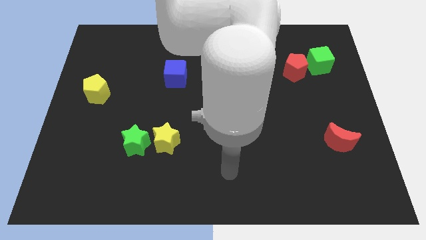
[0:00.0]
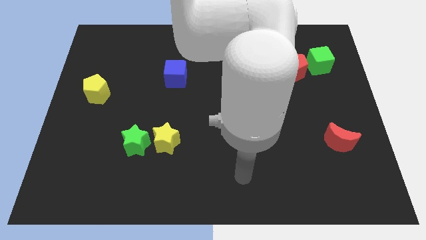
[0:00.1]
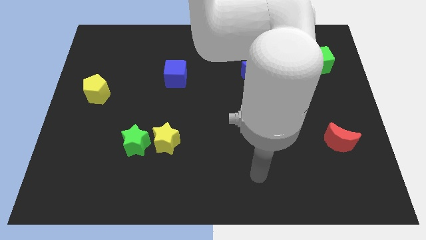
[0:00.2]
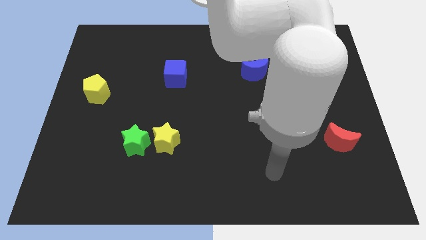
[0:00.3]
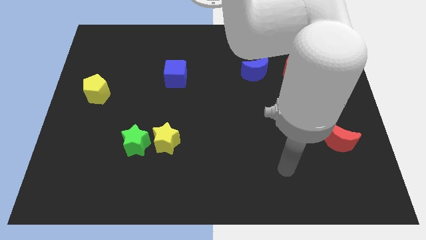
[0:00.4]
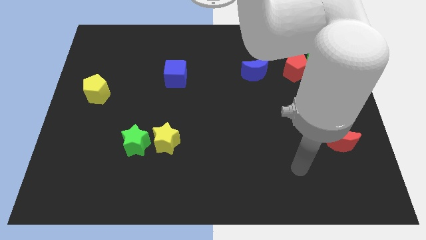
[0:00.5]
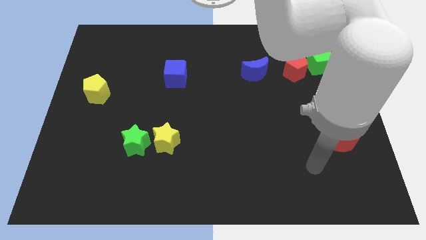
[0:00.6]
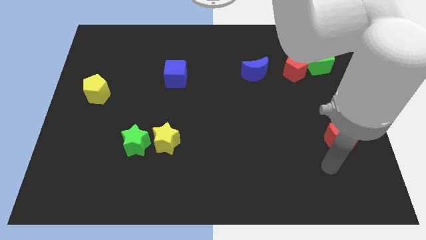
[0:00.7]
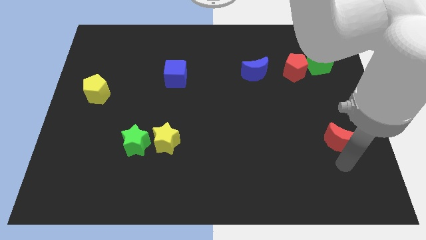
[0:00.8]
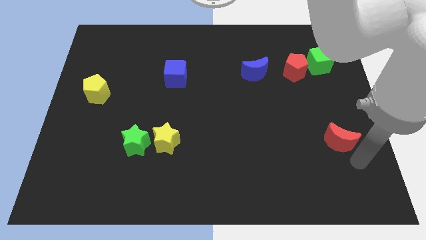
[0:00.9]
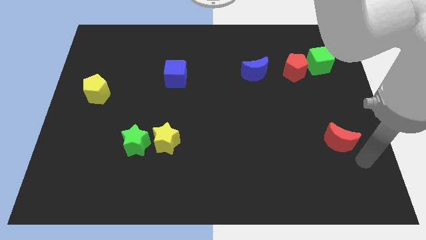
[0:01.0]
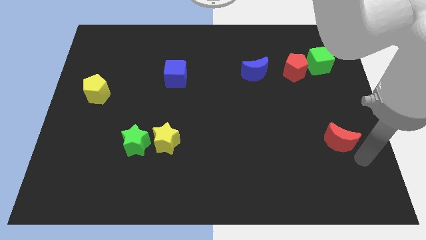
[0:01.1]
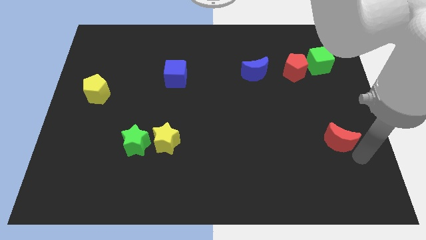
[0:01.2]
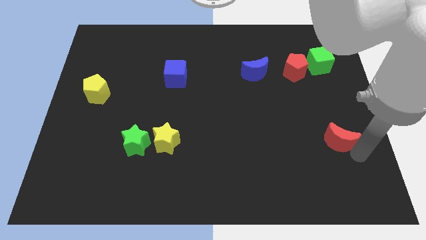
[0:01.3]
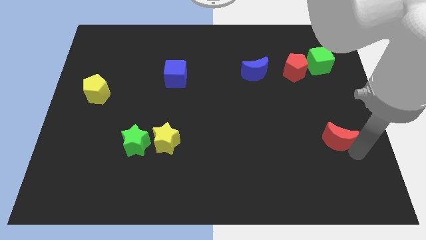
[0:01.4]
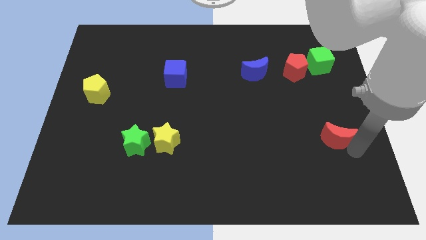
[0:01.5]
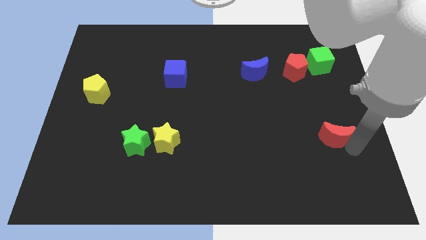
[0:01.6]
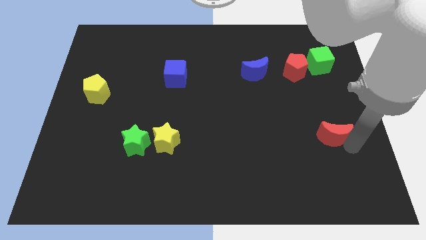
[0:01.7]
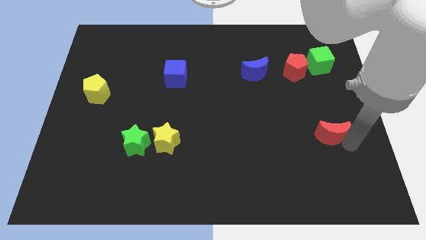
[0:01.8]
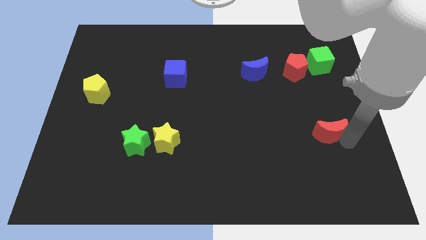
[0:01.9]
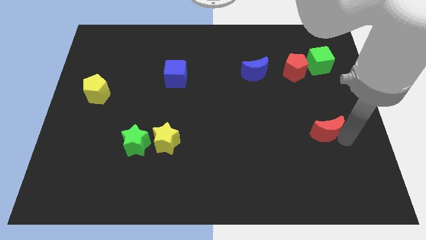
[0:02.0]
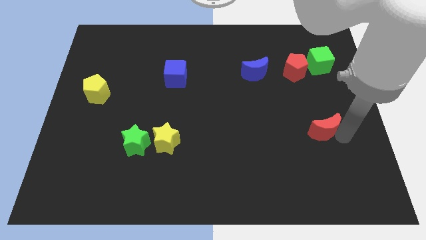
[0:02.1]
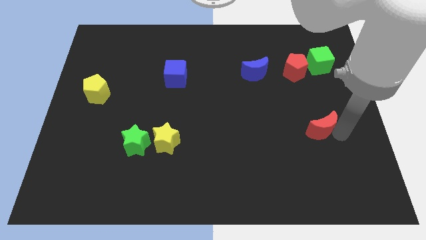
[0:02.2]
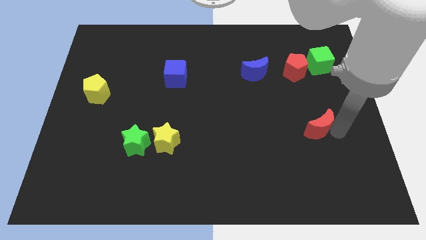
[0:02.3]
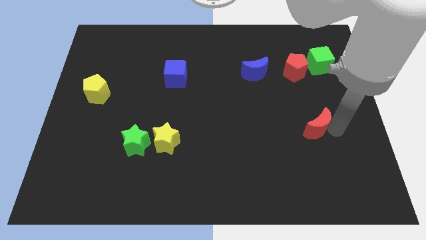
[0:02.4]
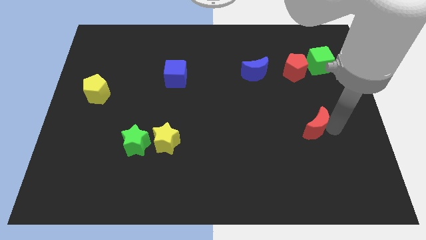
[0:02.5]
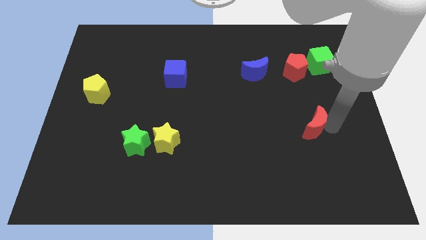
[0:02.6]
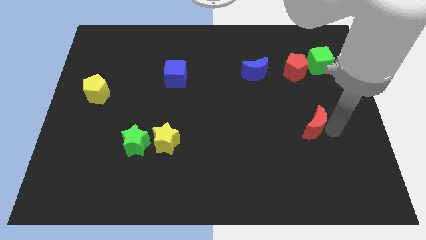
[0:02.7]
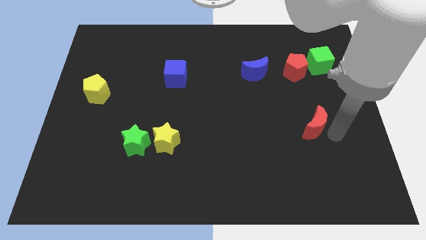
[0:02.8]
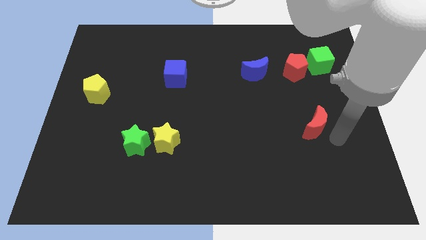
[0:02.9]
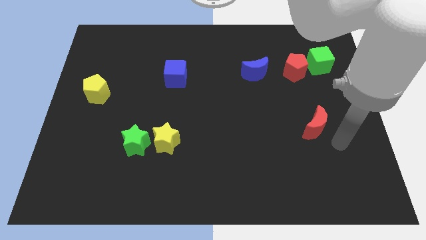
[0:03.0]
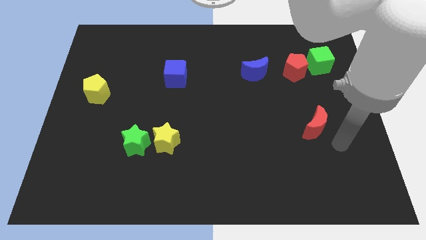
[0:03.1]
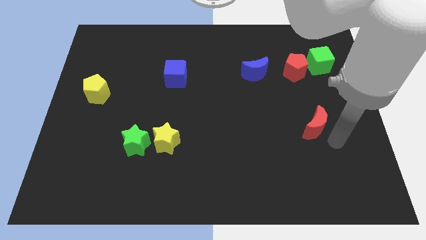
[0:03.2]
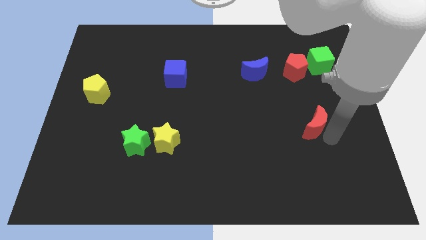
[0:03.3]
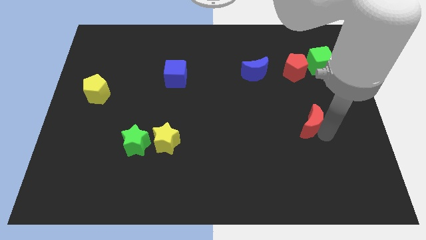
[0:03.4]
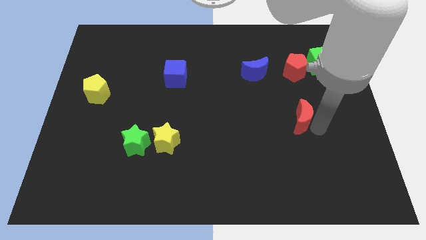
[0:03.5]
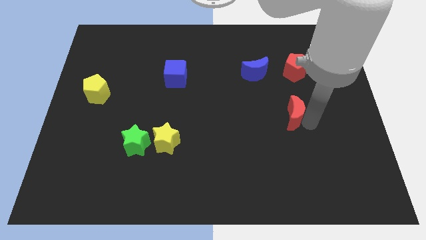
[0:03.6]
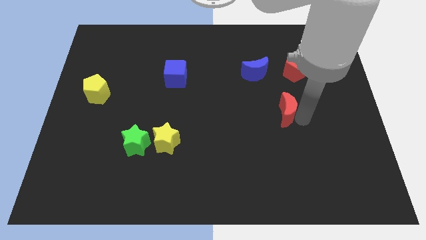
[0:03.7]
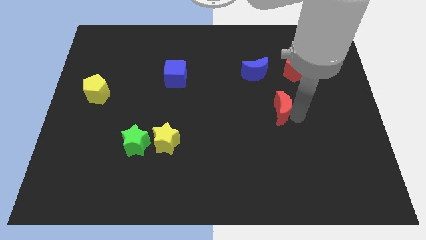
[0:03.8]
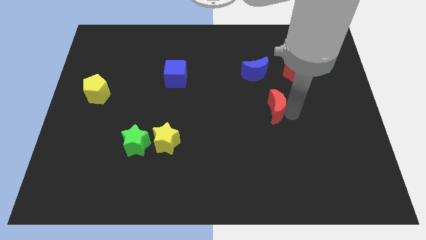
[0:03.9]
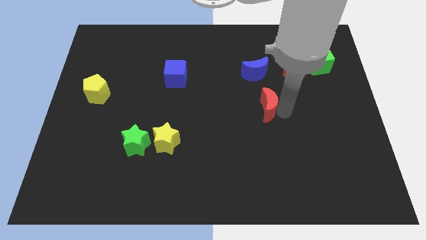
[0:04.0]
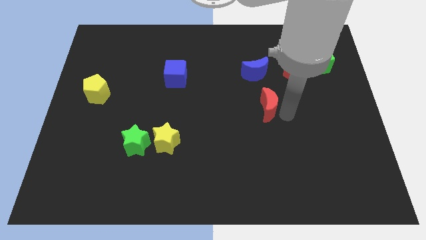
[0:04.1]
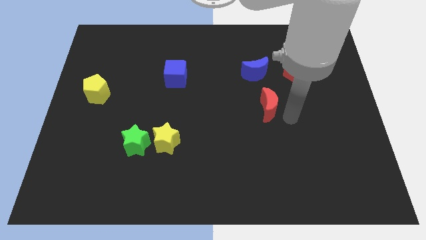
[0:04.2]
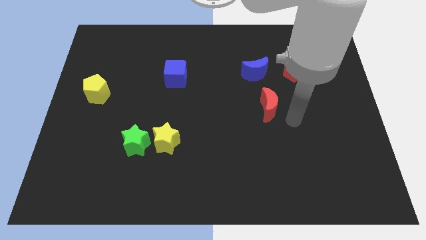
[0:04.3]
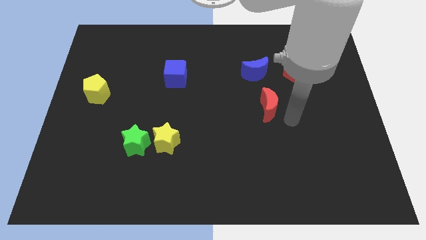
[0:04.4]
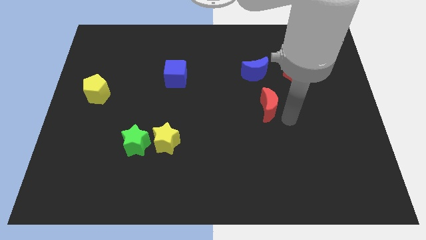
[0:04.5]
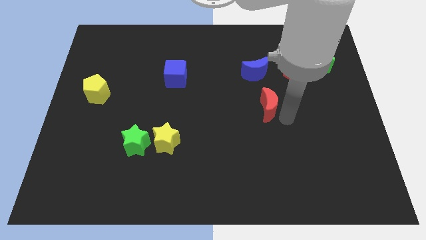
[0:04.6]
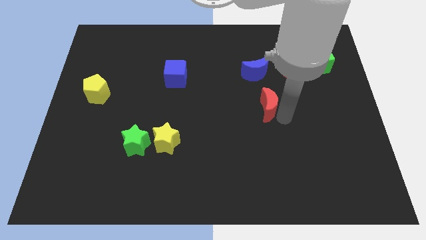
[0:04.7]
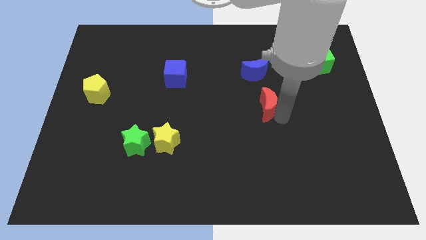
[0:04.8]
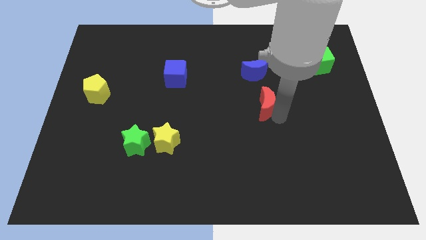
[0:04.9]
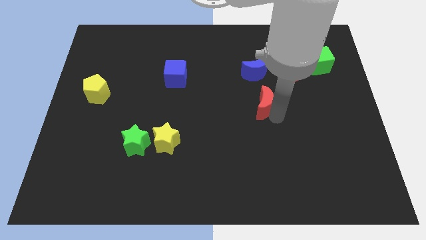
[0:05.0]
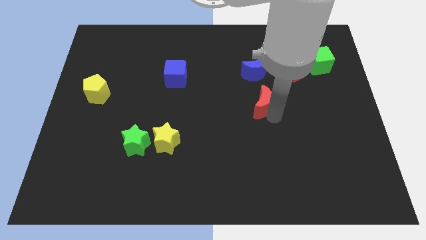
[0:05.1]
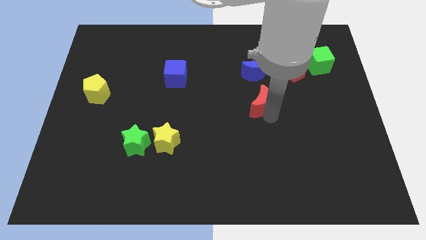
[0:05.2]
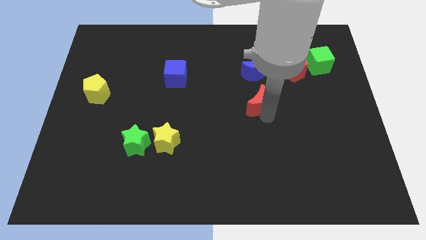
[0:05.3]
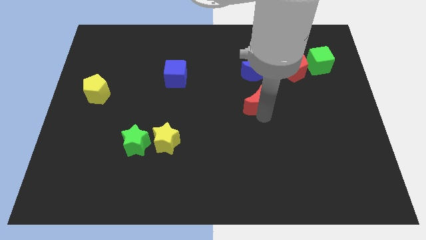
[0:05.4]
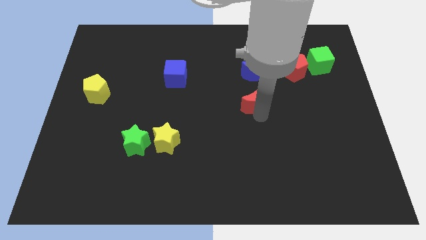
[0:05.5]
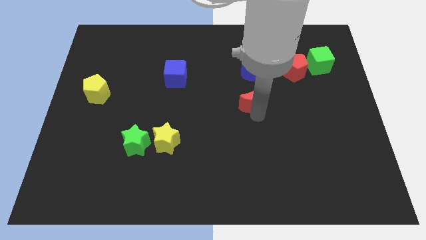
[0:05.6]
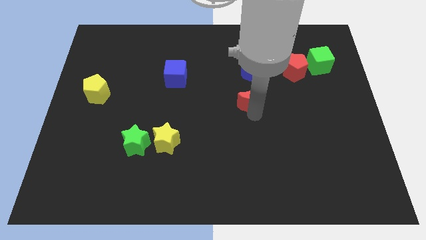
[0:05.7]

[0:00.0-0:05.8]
slide the red moon up and left

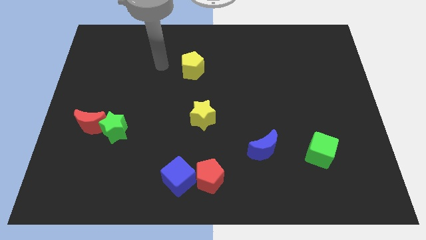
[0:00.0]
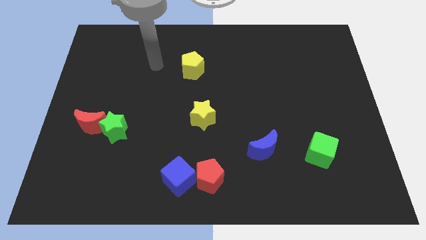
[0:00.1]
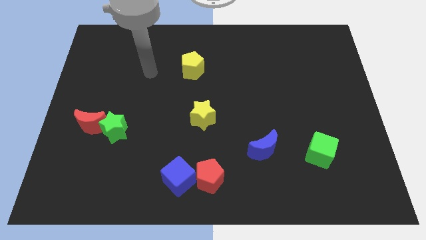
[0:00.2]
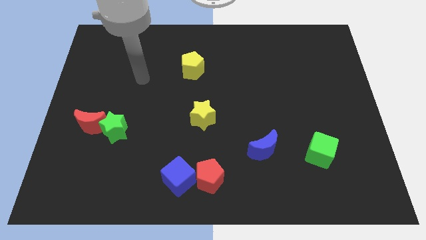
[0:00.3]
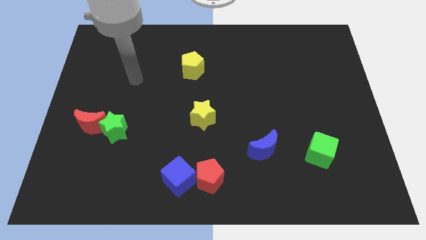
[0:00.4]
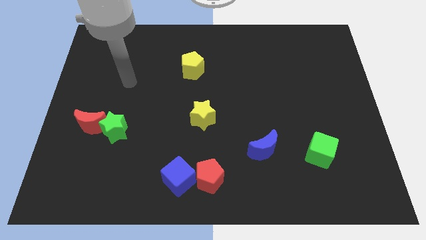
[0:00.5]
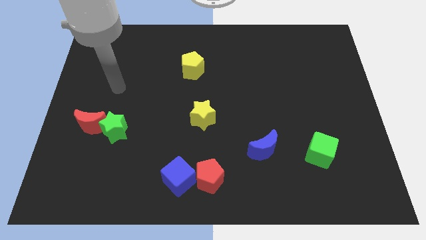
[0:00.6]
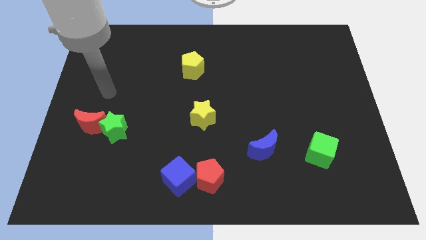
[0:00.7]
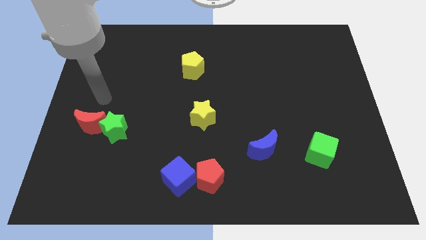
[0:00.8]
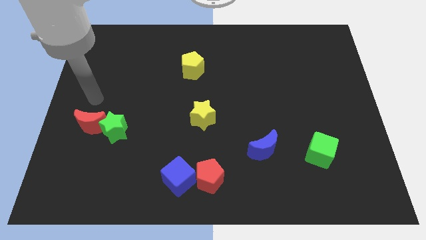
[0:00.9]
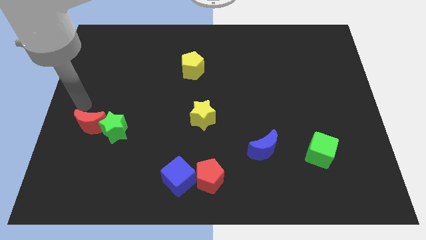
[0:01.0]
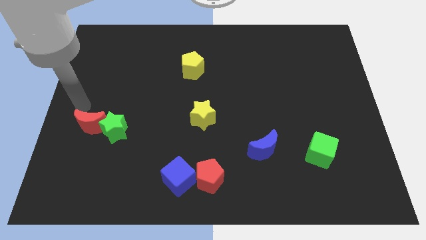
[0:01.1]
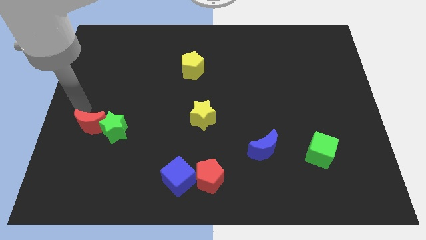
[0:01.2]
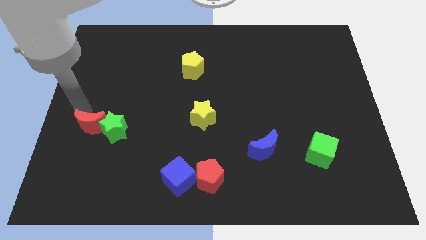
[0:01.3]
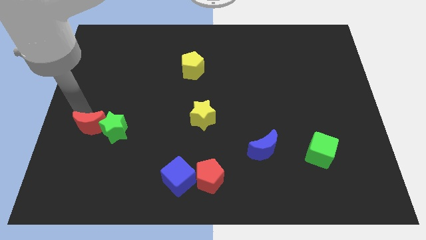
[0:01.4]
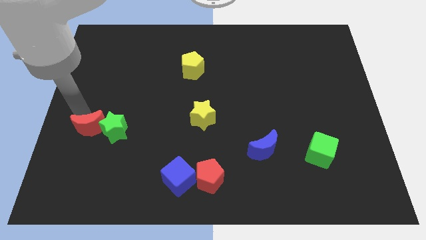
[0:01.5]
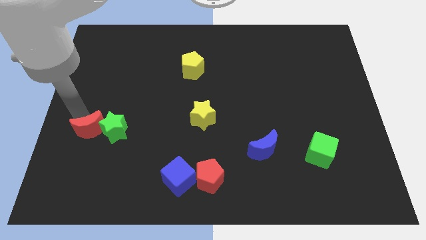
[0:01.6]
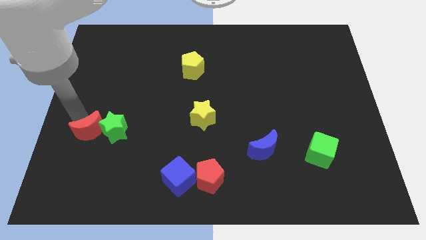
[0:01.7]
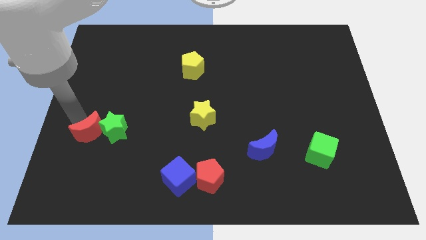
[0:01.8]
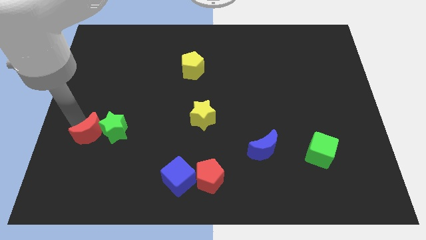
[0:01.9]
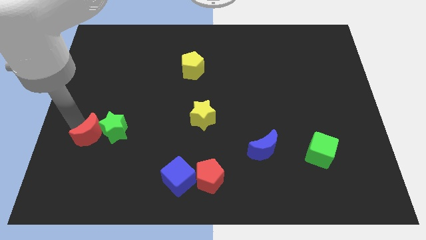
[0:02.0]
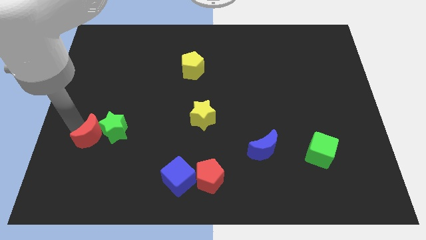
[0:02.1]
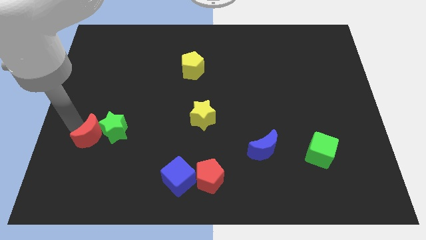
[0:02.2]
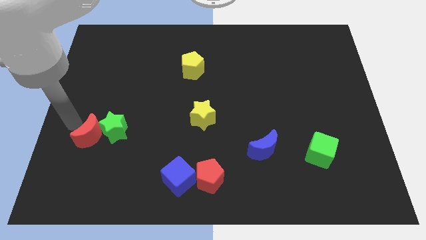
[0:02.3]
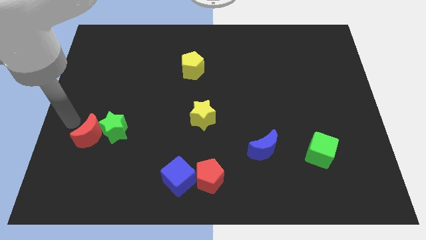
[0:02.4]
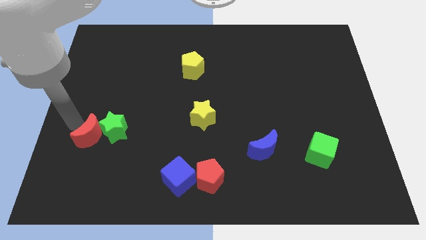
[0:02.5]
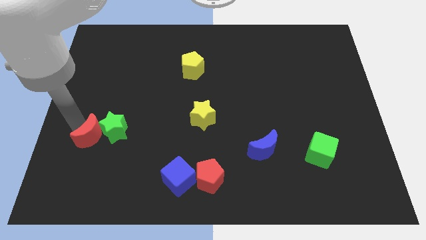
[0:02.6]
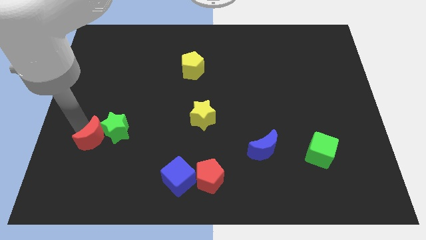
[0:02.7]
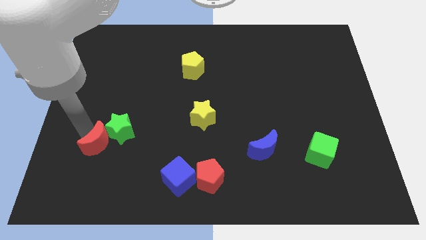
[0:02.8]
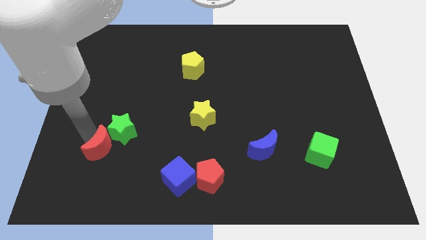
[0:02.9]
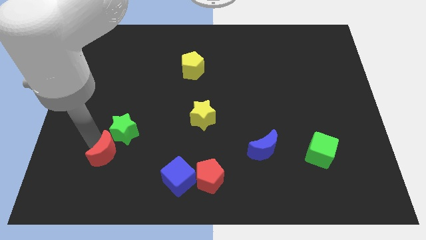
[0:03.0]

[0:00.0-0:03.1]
slide the red moon a bit diagonally down and to the right
